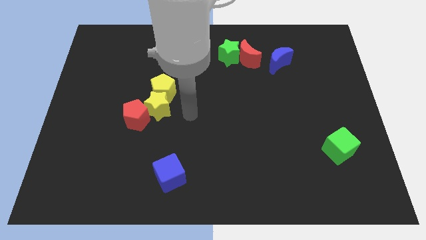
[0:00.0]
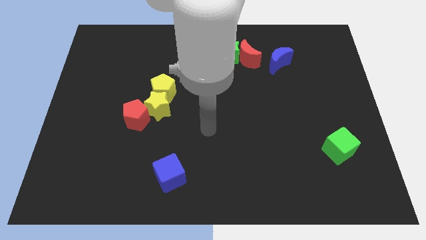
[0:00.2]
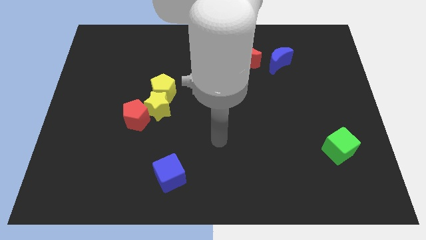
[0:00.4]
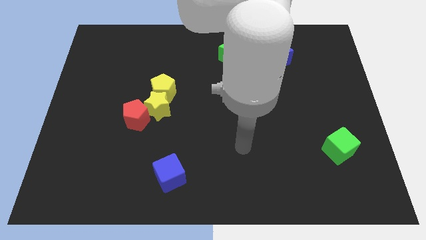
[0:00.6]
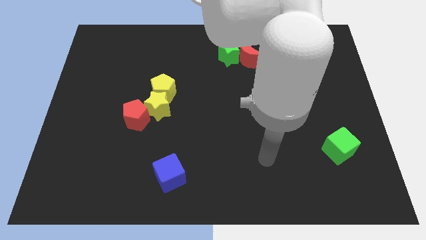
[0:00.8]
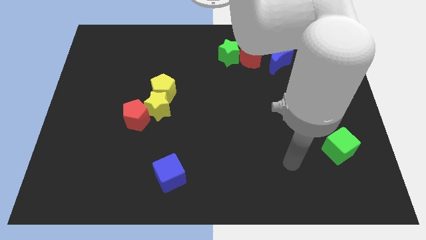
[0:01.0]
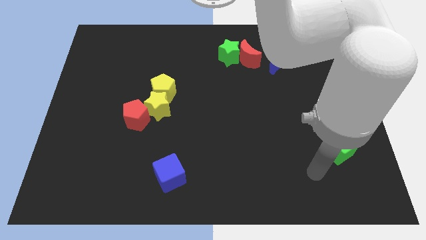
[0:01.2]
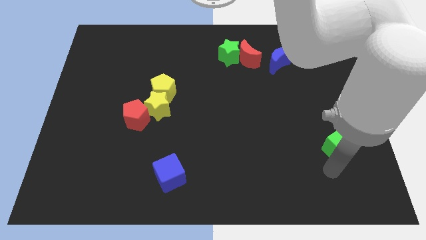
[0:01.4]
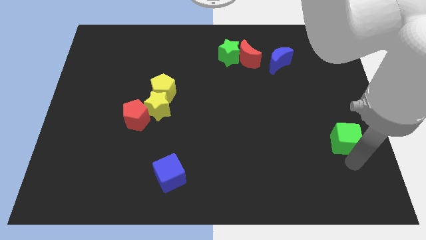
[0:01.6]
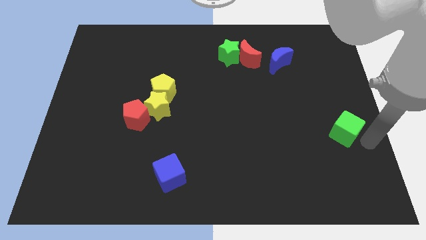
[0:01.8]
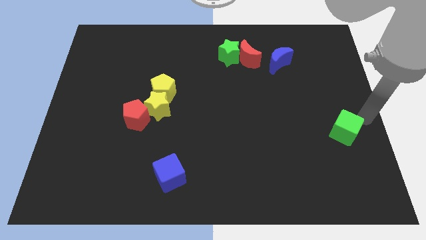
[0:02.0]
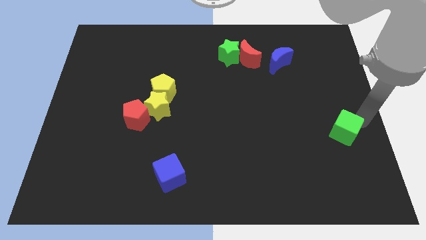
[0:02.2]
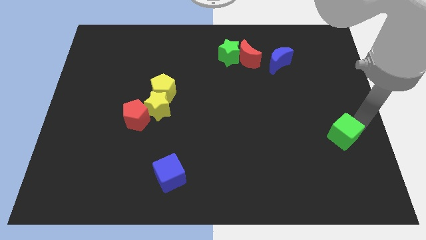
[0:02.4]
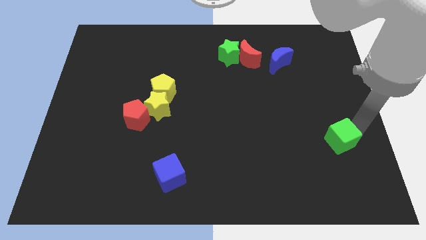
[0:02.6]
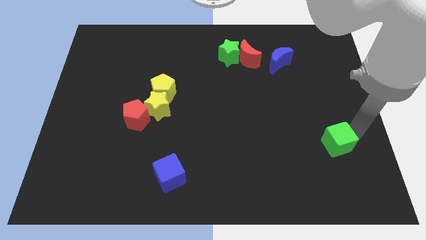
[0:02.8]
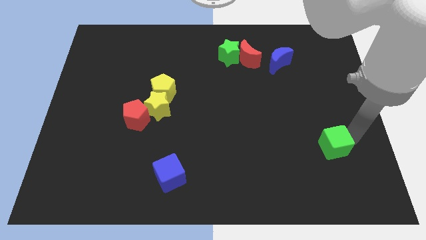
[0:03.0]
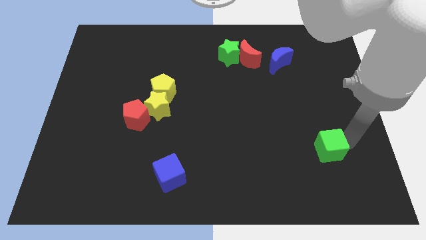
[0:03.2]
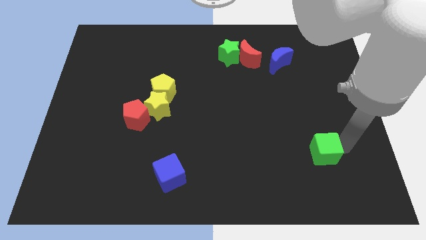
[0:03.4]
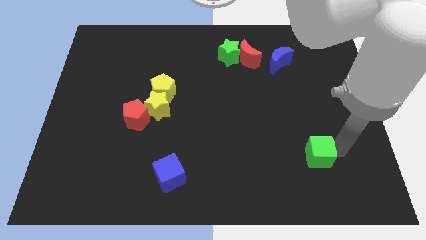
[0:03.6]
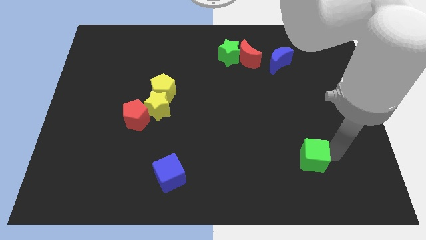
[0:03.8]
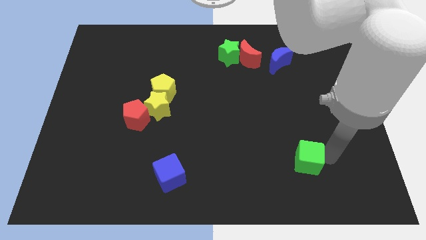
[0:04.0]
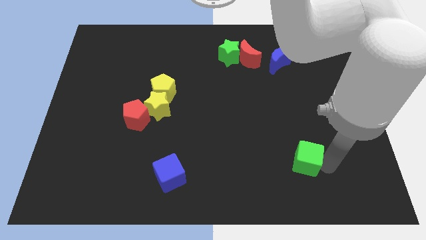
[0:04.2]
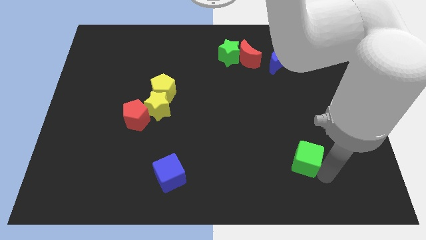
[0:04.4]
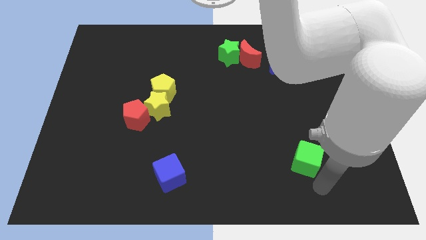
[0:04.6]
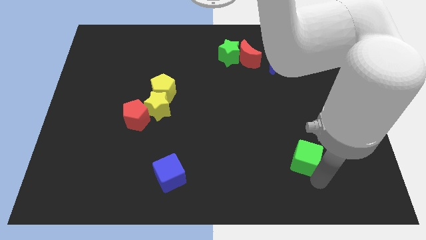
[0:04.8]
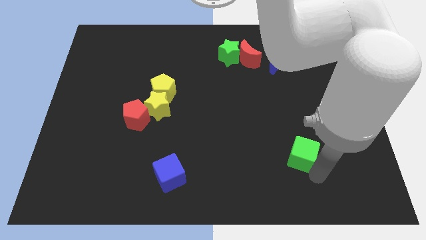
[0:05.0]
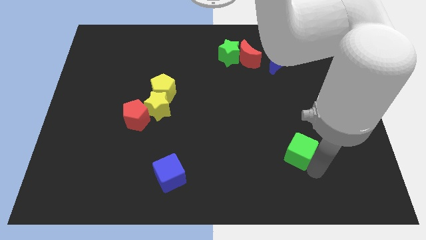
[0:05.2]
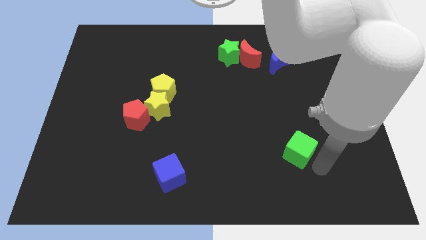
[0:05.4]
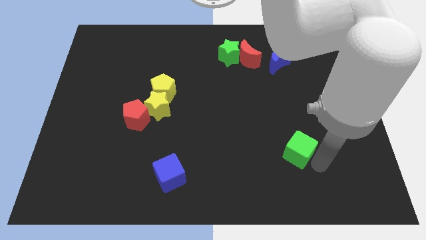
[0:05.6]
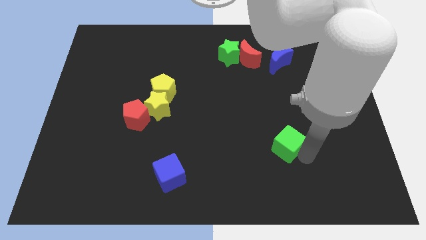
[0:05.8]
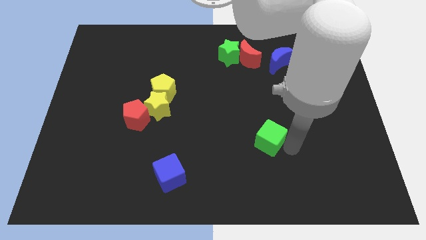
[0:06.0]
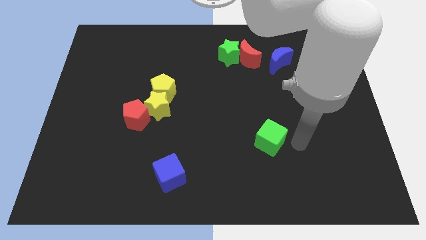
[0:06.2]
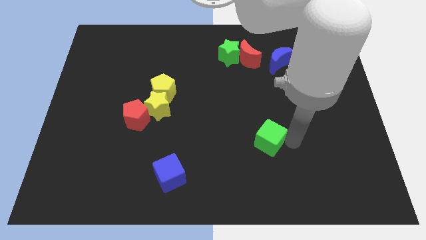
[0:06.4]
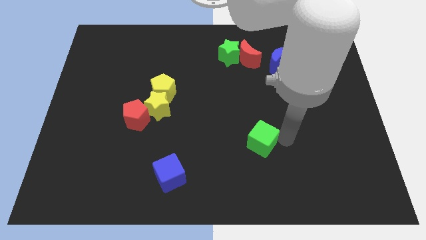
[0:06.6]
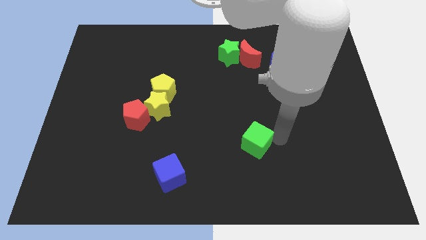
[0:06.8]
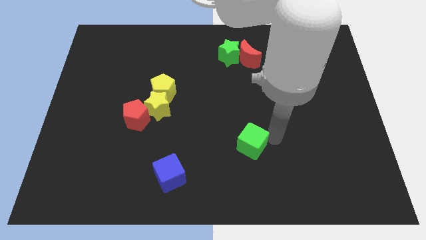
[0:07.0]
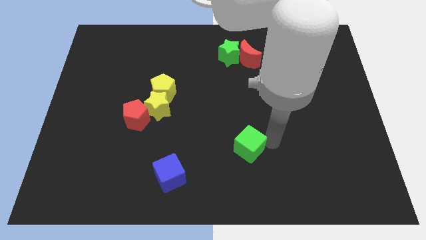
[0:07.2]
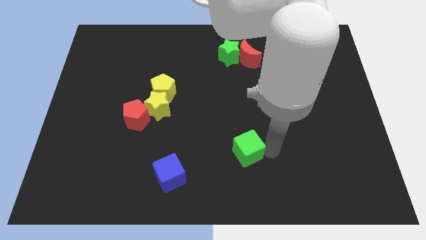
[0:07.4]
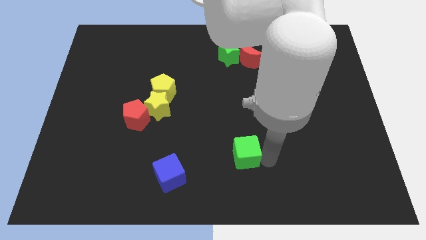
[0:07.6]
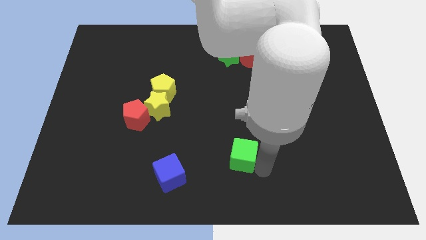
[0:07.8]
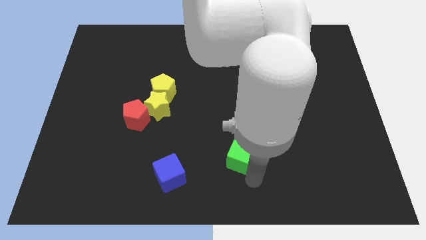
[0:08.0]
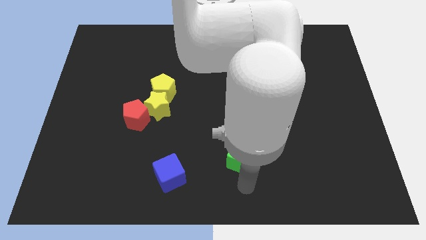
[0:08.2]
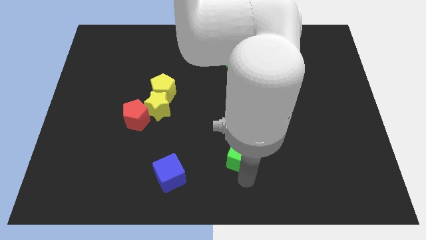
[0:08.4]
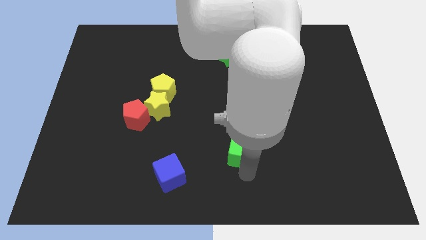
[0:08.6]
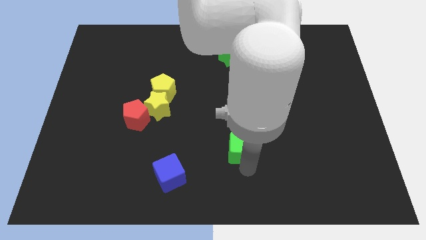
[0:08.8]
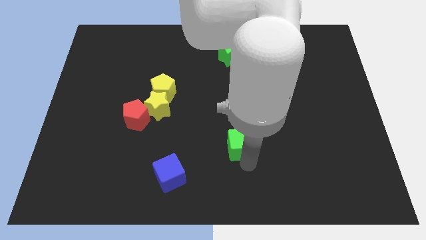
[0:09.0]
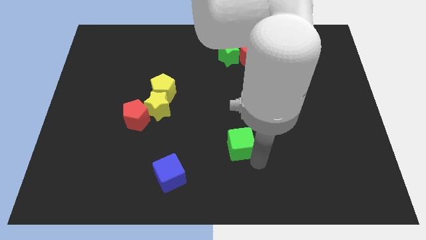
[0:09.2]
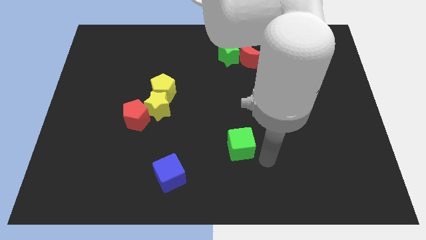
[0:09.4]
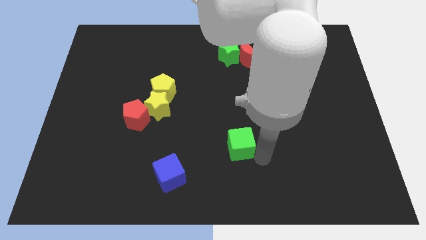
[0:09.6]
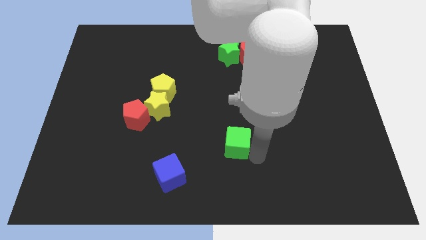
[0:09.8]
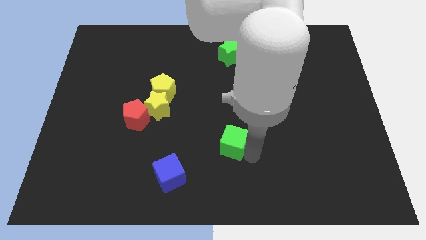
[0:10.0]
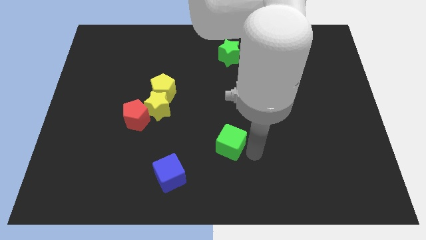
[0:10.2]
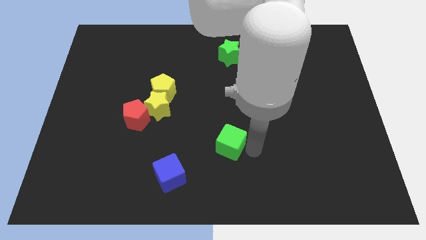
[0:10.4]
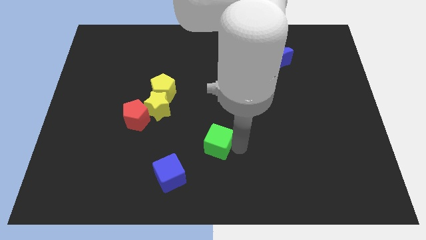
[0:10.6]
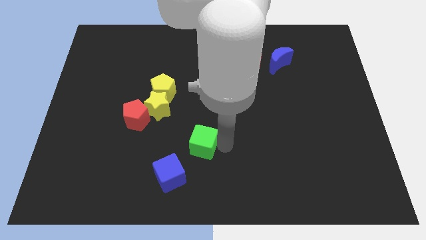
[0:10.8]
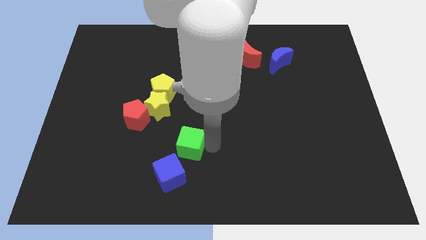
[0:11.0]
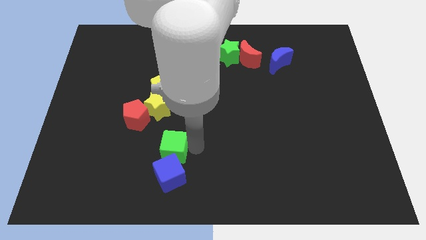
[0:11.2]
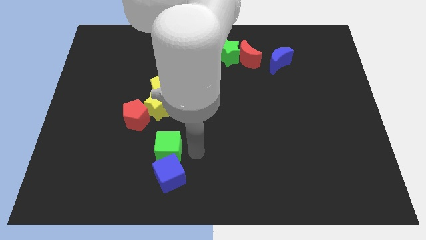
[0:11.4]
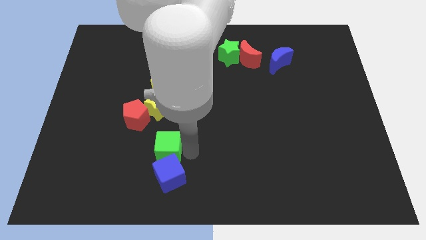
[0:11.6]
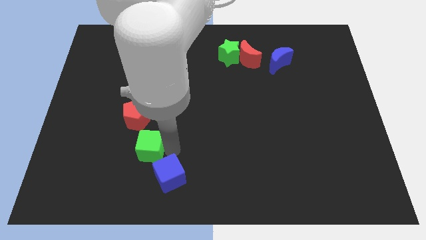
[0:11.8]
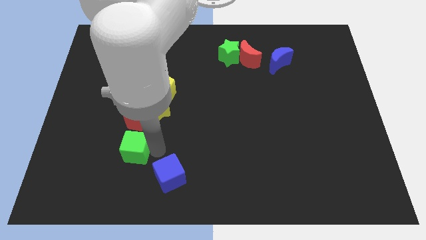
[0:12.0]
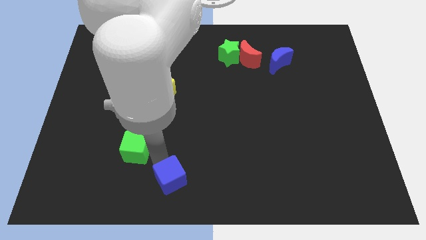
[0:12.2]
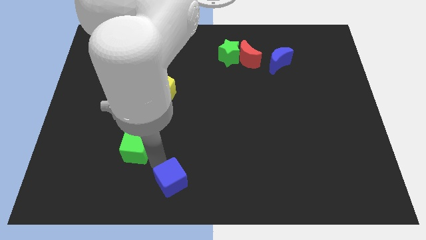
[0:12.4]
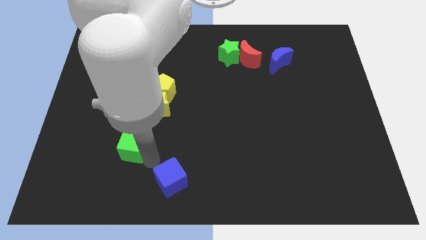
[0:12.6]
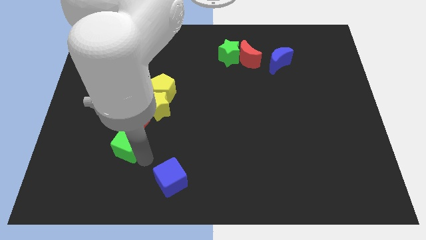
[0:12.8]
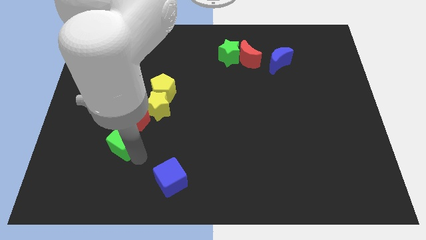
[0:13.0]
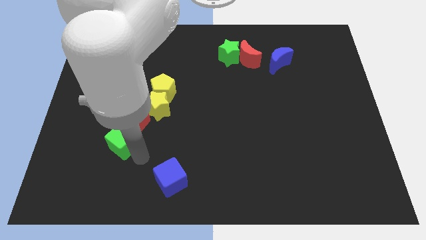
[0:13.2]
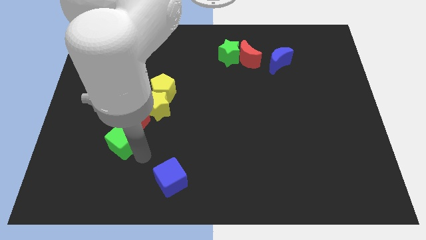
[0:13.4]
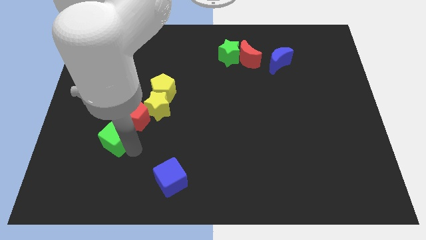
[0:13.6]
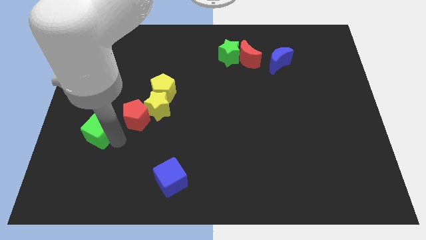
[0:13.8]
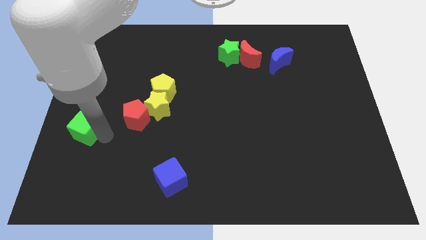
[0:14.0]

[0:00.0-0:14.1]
slide the green cube to the left side of the board
